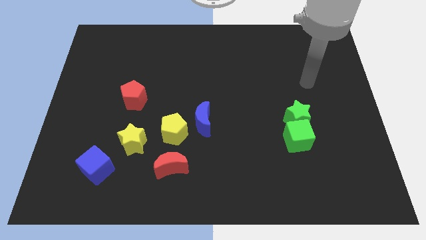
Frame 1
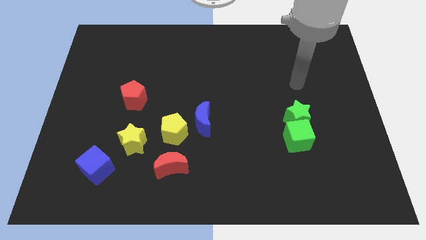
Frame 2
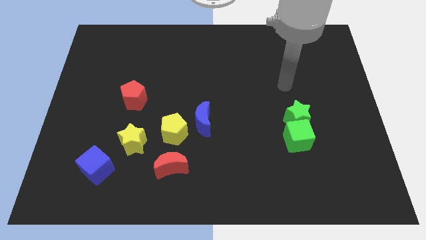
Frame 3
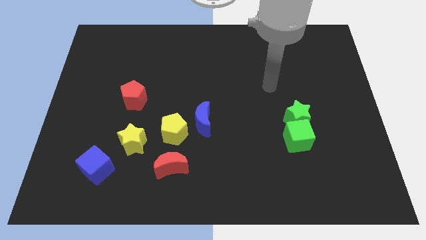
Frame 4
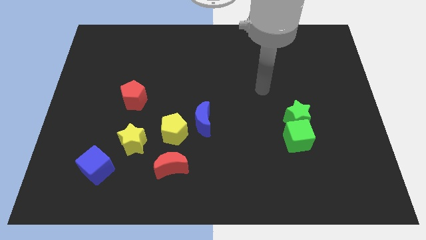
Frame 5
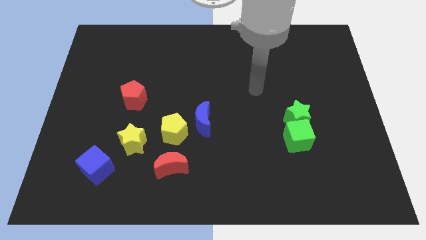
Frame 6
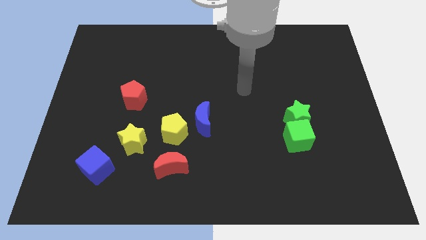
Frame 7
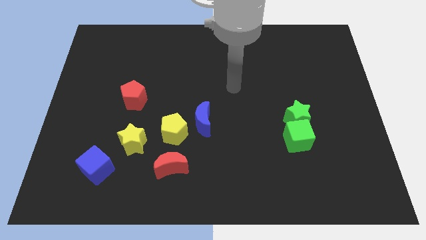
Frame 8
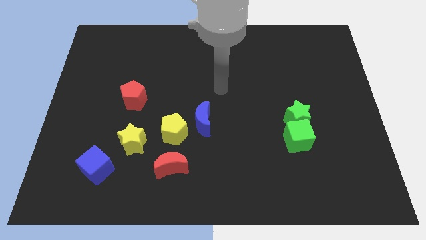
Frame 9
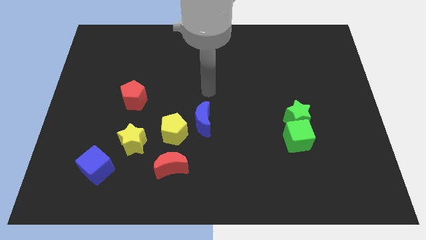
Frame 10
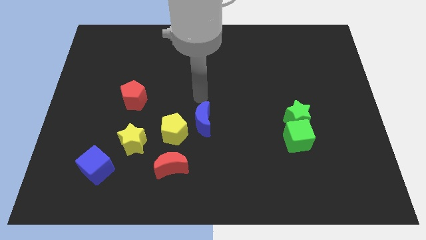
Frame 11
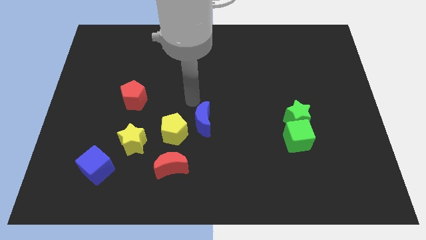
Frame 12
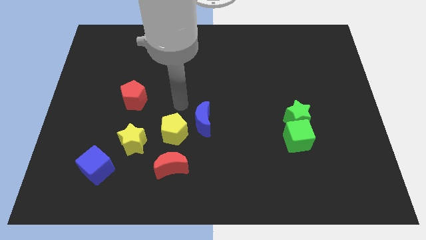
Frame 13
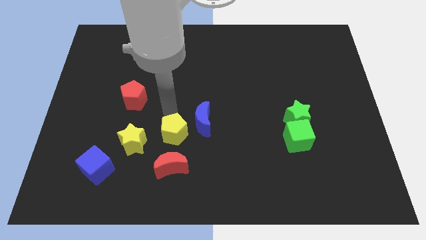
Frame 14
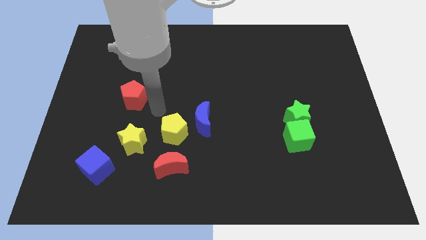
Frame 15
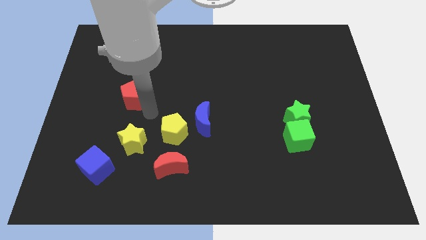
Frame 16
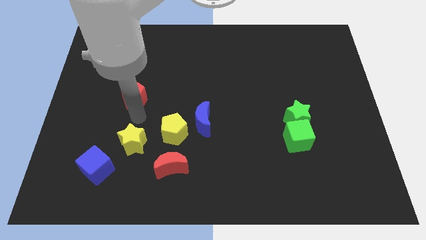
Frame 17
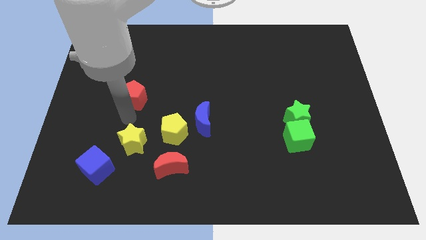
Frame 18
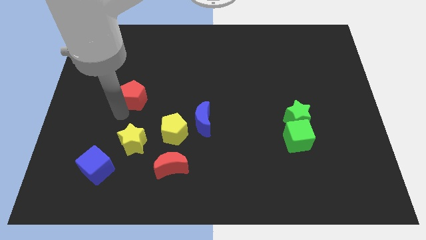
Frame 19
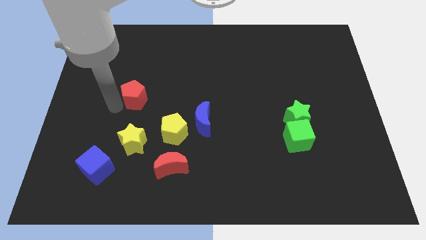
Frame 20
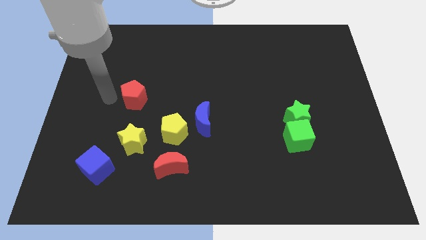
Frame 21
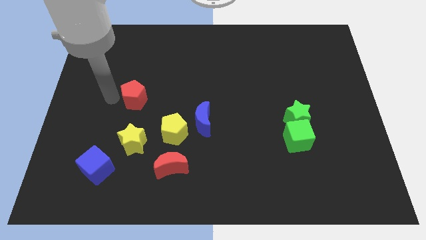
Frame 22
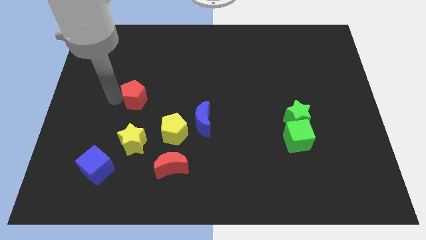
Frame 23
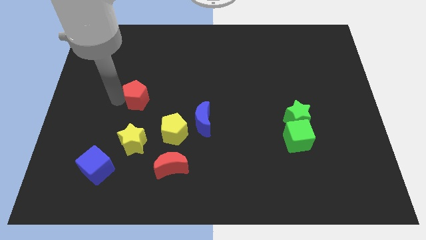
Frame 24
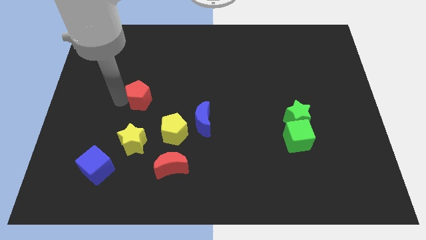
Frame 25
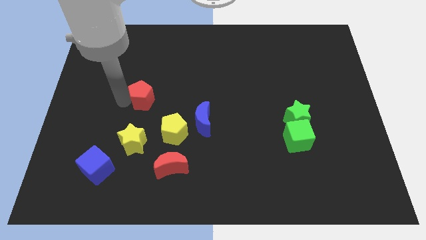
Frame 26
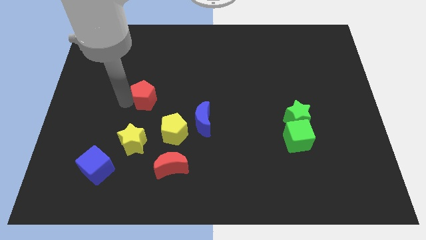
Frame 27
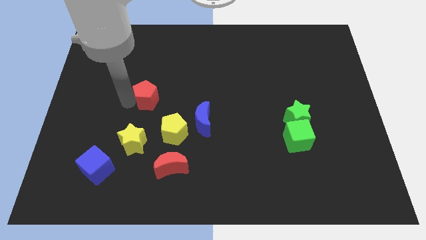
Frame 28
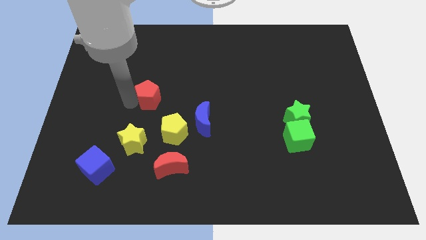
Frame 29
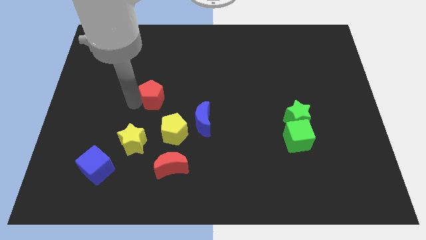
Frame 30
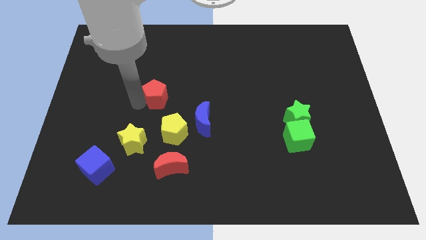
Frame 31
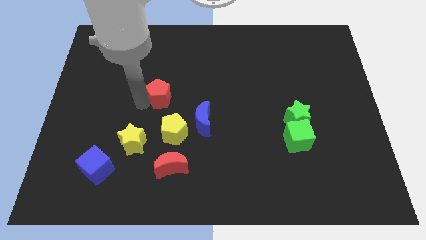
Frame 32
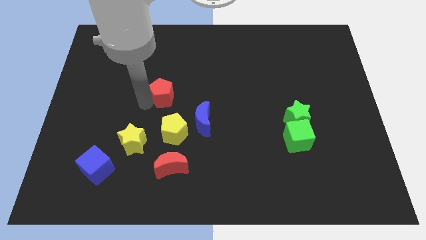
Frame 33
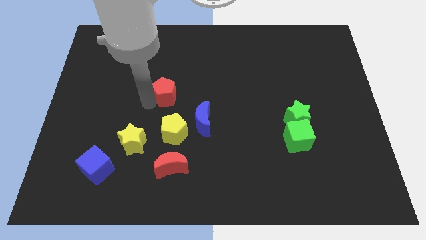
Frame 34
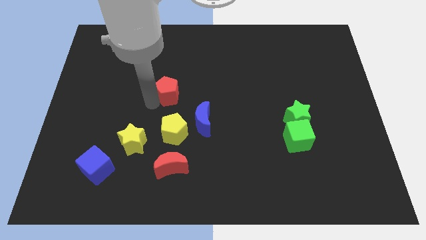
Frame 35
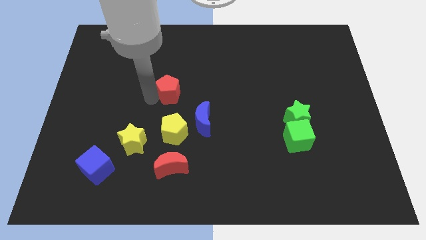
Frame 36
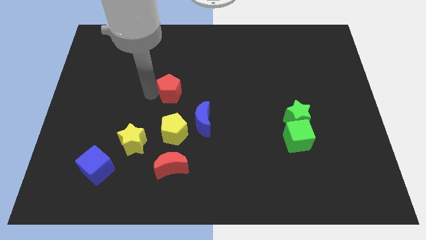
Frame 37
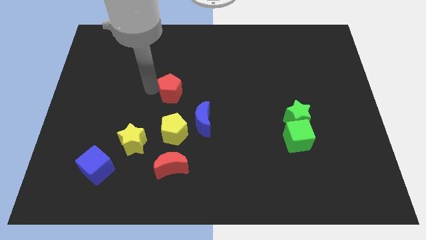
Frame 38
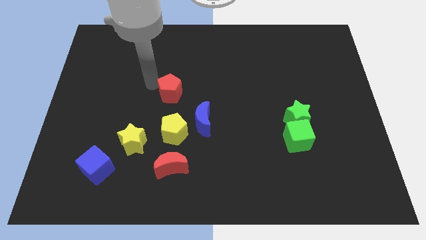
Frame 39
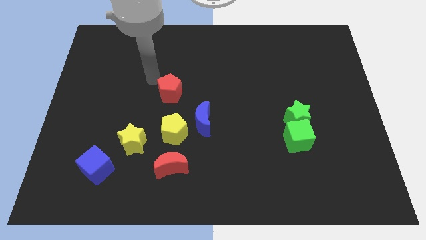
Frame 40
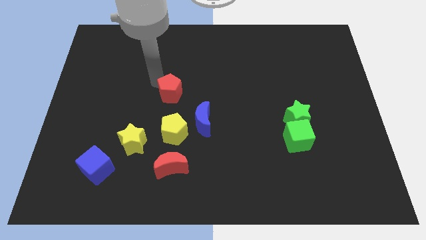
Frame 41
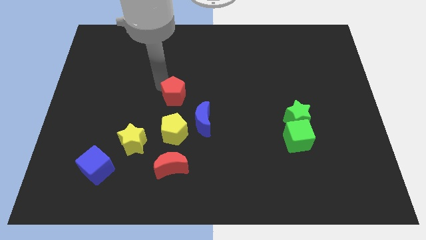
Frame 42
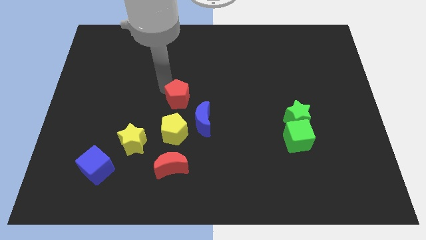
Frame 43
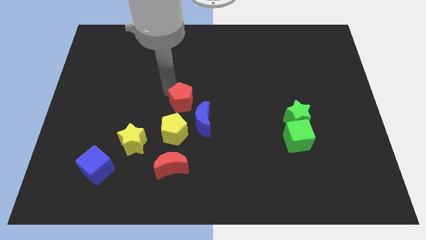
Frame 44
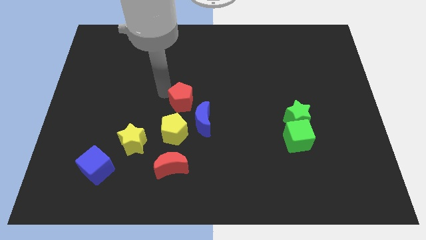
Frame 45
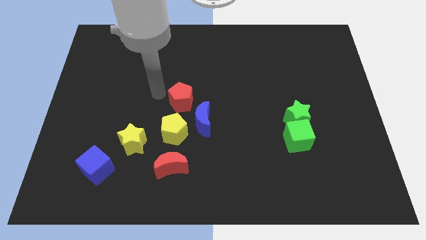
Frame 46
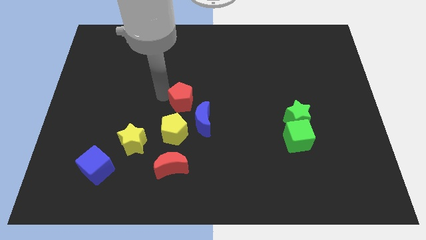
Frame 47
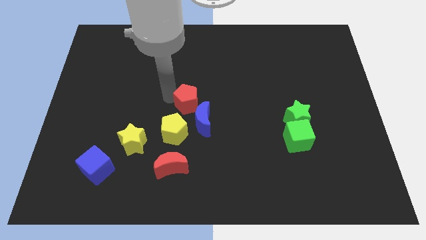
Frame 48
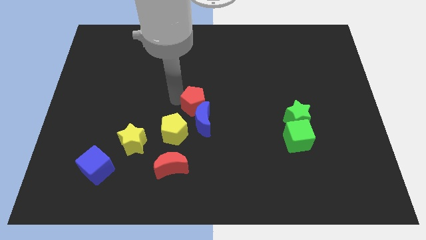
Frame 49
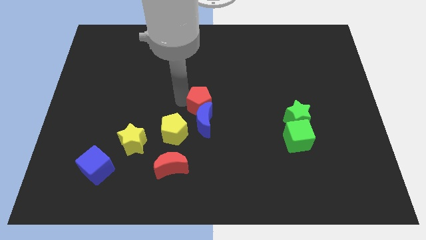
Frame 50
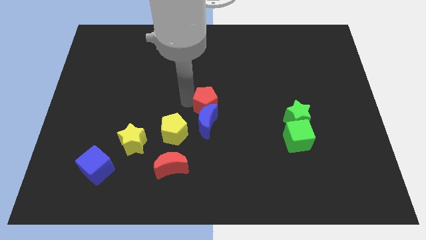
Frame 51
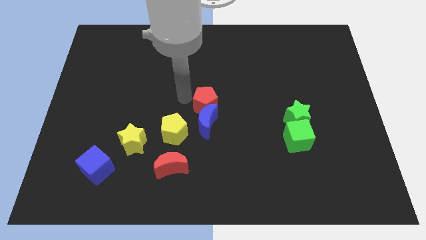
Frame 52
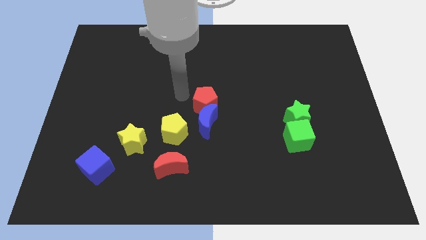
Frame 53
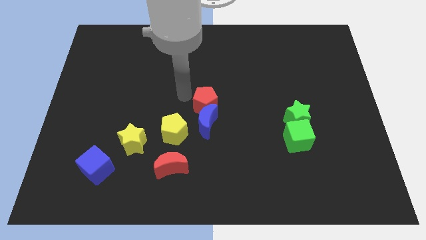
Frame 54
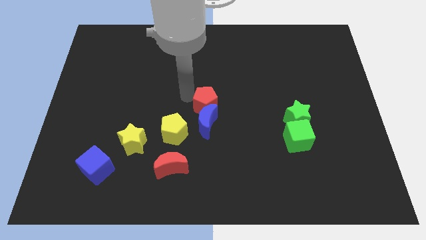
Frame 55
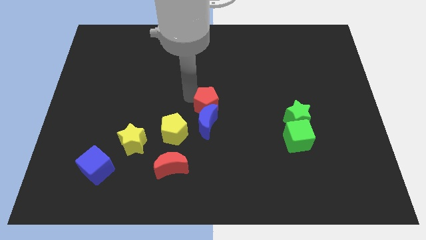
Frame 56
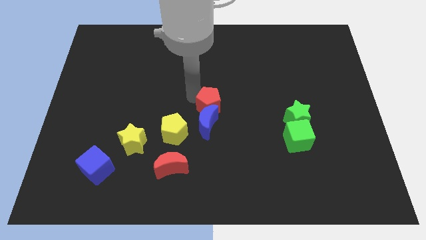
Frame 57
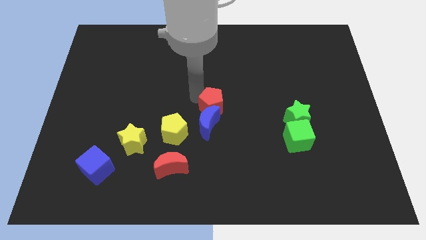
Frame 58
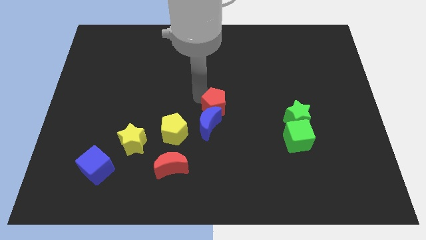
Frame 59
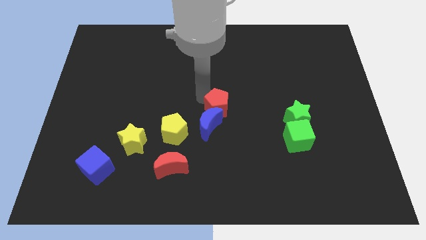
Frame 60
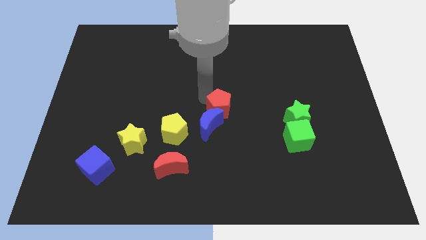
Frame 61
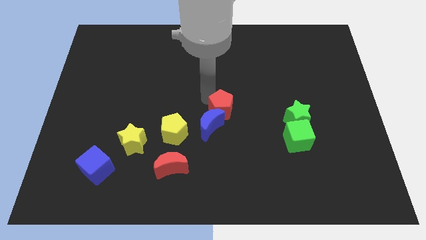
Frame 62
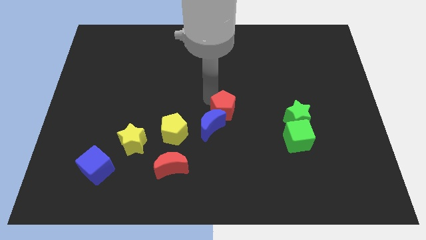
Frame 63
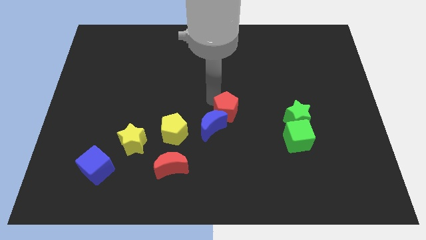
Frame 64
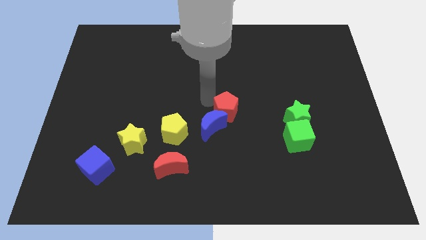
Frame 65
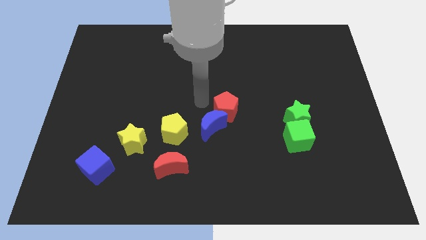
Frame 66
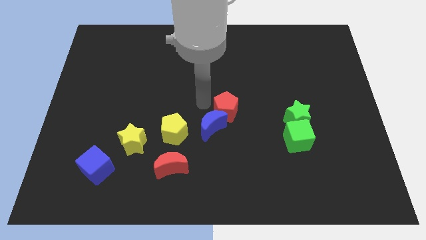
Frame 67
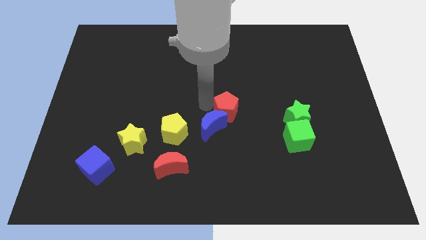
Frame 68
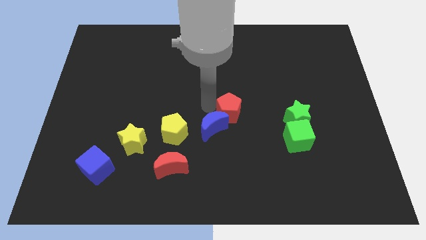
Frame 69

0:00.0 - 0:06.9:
push the red pentagon just left of the green star

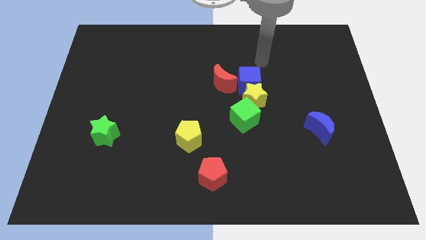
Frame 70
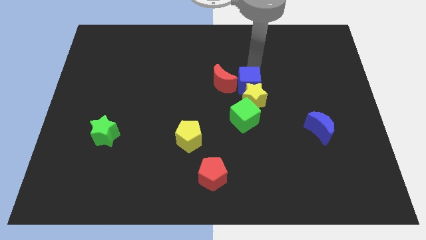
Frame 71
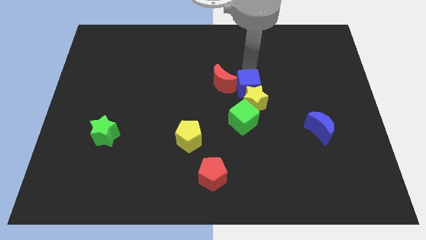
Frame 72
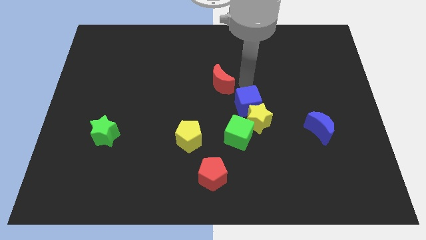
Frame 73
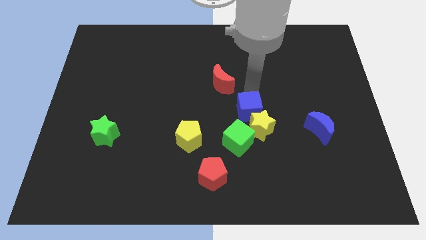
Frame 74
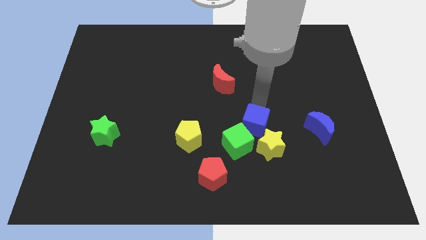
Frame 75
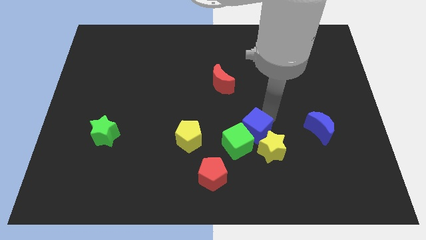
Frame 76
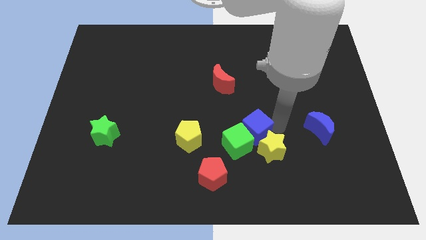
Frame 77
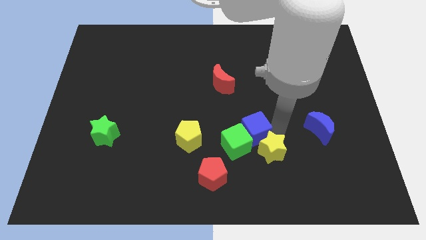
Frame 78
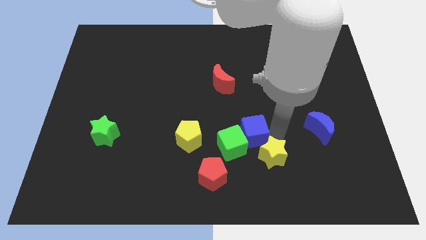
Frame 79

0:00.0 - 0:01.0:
move the yellow star right of the red pentagon
